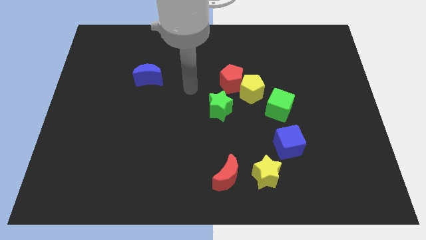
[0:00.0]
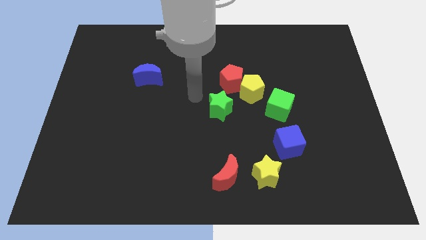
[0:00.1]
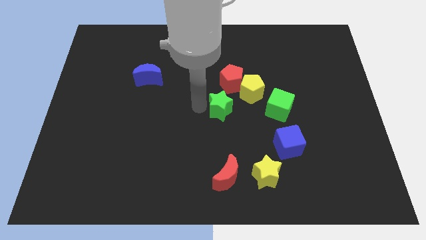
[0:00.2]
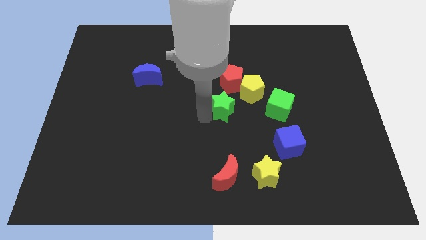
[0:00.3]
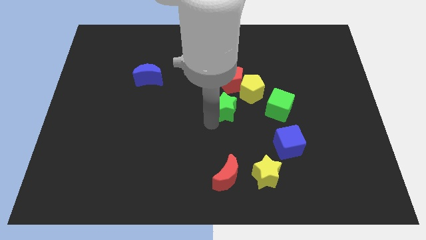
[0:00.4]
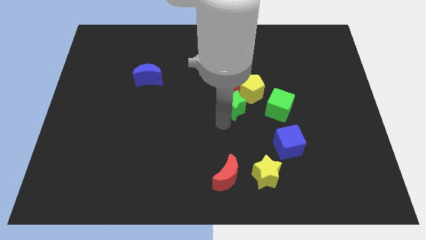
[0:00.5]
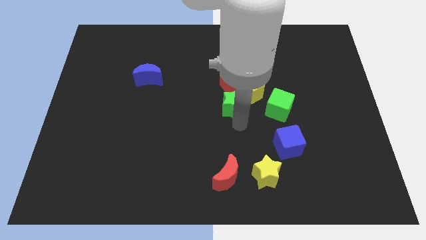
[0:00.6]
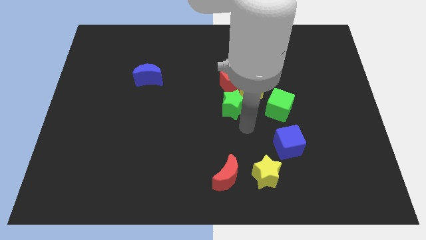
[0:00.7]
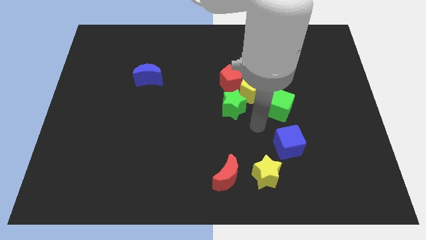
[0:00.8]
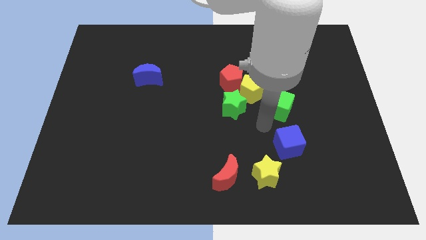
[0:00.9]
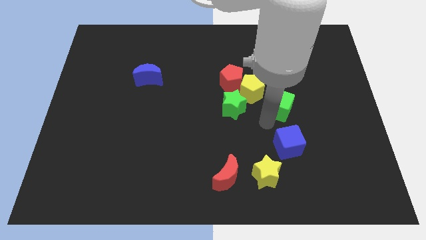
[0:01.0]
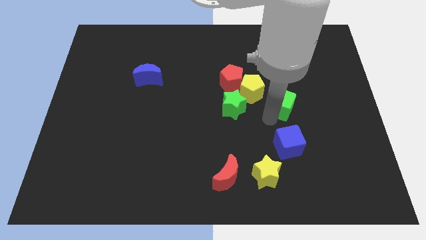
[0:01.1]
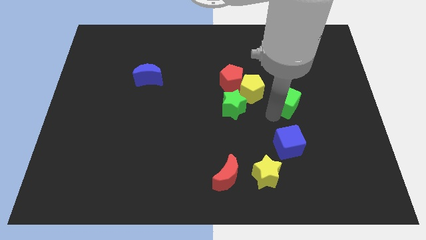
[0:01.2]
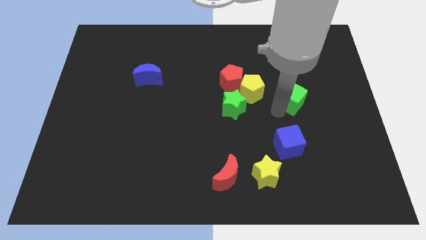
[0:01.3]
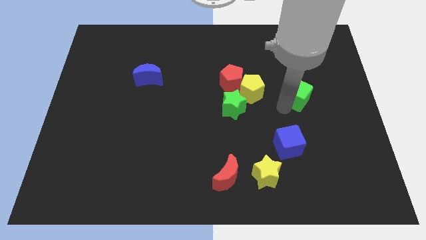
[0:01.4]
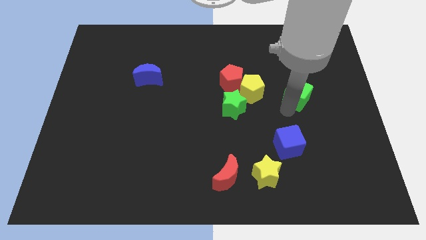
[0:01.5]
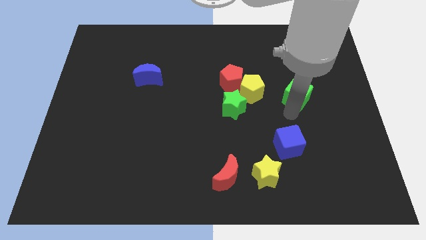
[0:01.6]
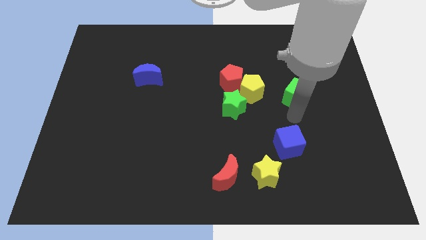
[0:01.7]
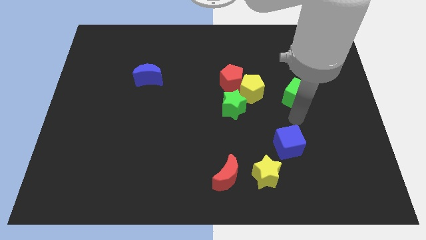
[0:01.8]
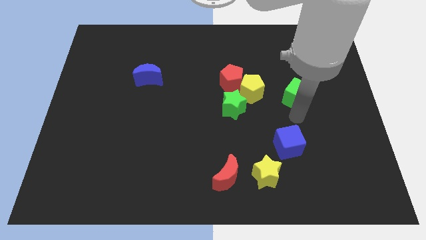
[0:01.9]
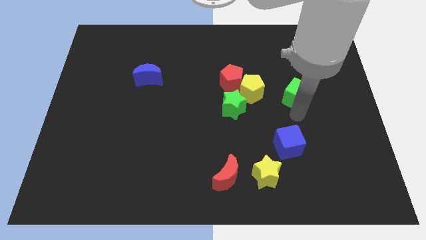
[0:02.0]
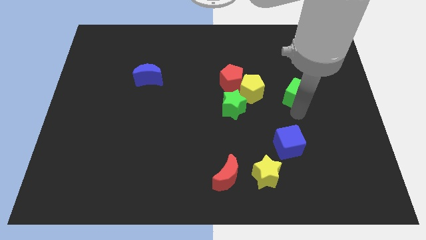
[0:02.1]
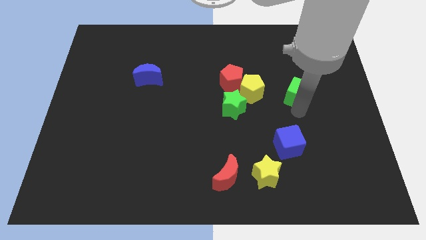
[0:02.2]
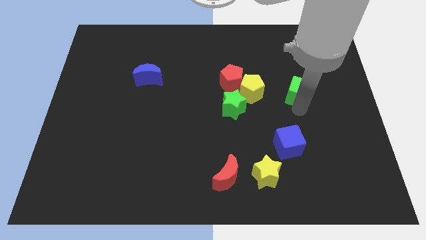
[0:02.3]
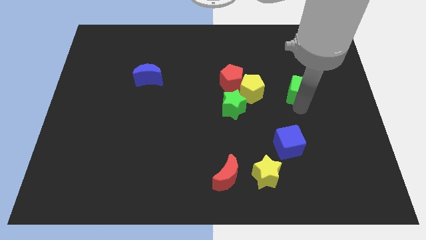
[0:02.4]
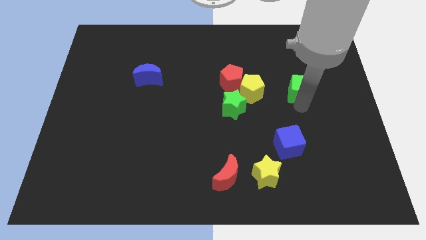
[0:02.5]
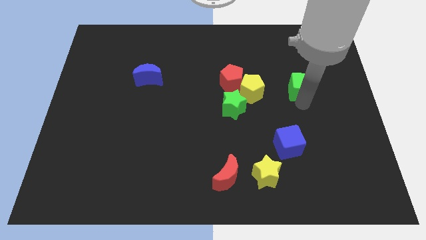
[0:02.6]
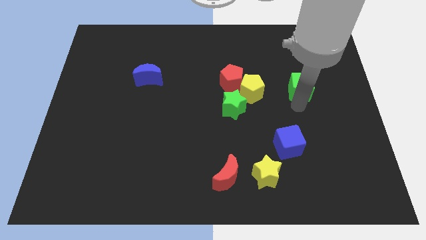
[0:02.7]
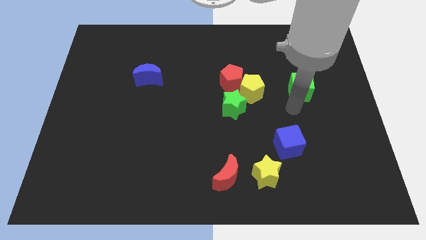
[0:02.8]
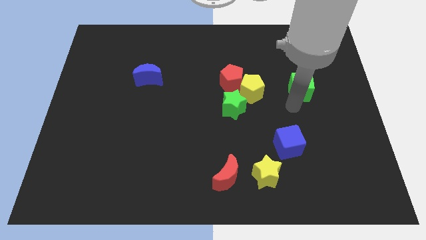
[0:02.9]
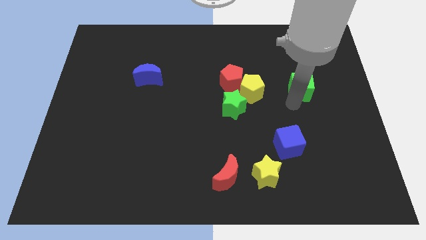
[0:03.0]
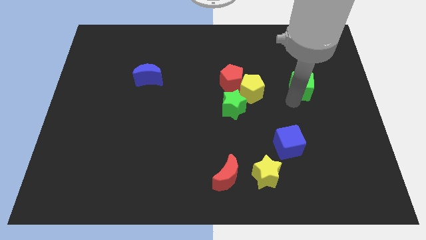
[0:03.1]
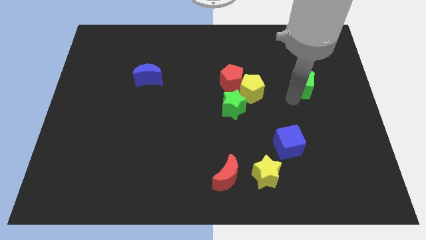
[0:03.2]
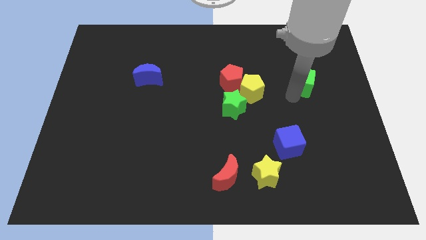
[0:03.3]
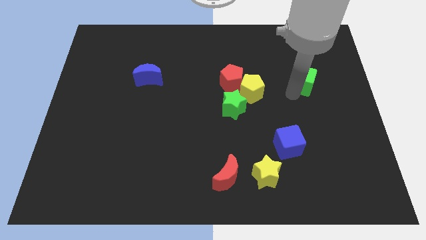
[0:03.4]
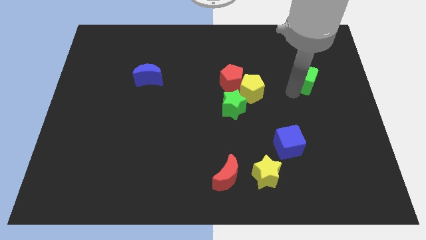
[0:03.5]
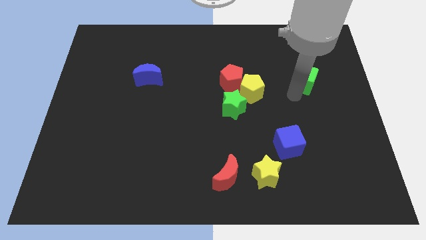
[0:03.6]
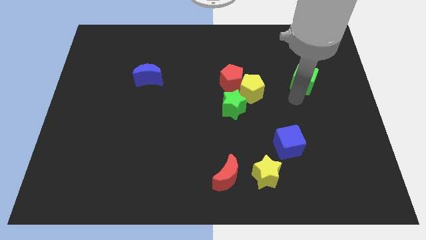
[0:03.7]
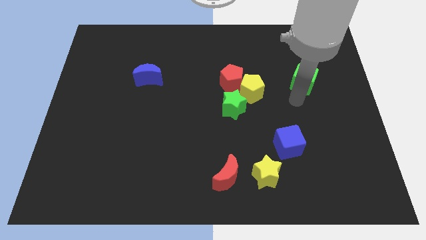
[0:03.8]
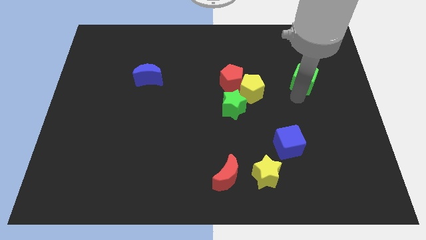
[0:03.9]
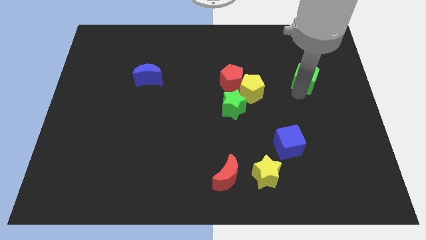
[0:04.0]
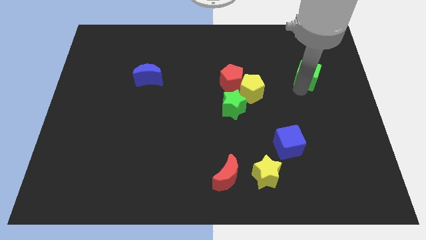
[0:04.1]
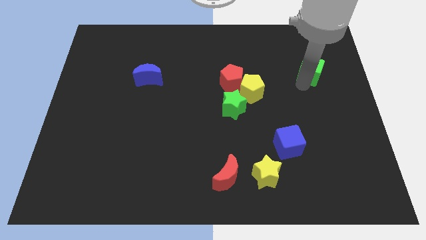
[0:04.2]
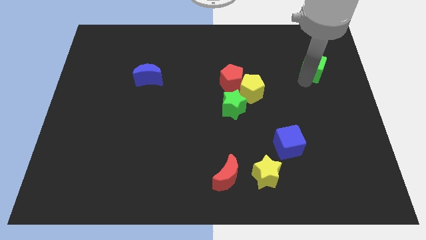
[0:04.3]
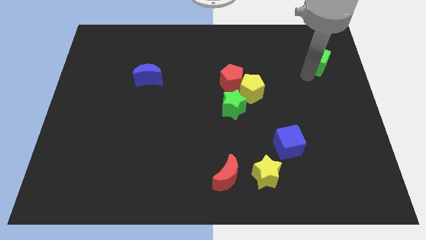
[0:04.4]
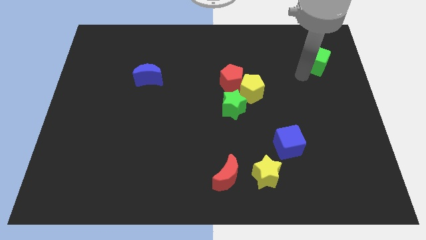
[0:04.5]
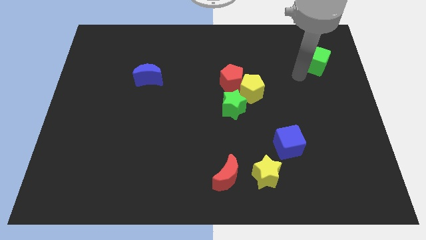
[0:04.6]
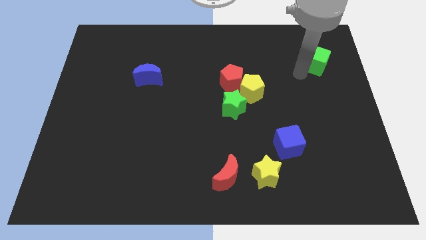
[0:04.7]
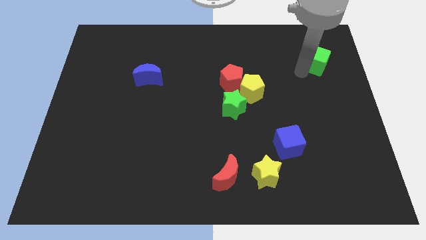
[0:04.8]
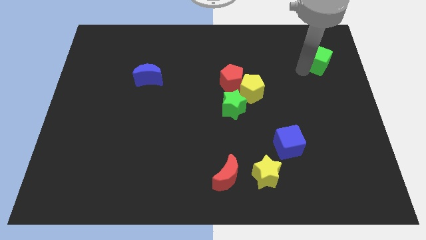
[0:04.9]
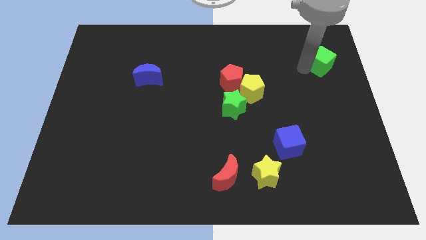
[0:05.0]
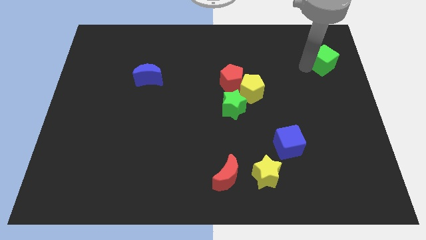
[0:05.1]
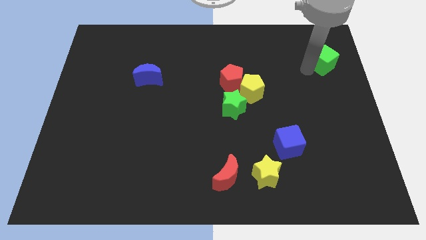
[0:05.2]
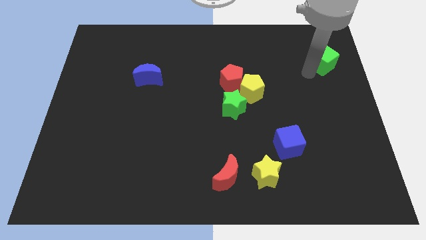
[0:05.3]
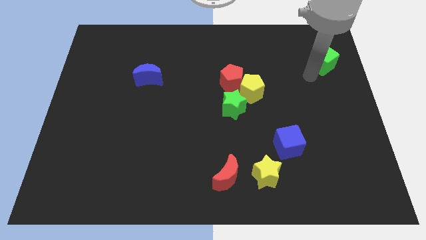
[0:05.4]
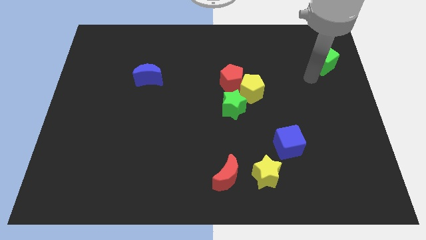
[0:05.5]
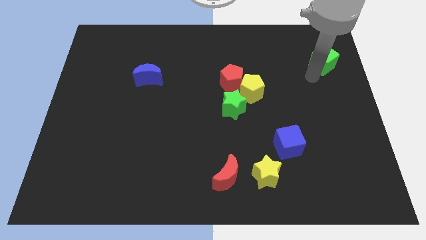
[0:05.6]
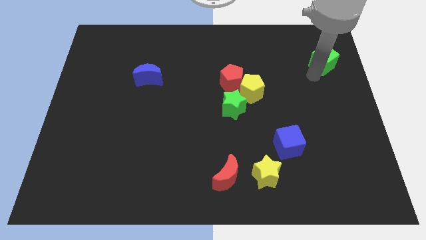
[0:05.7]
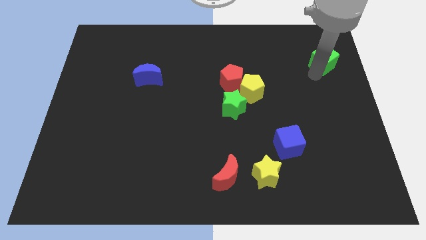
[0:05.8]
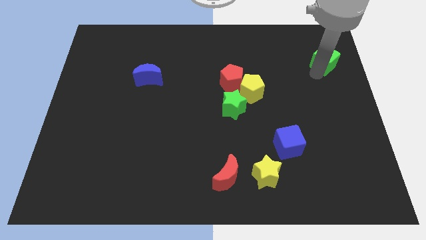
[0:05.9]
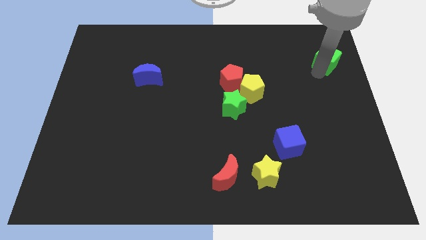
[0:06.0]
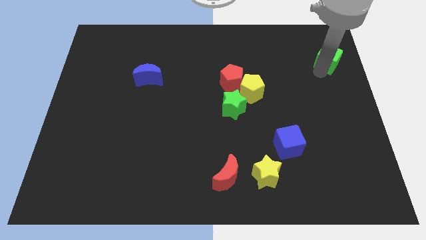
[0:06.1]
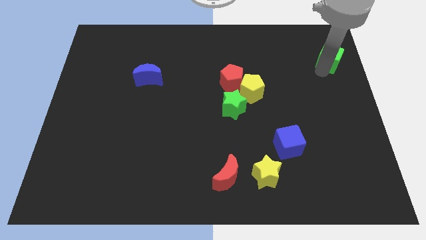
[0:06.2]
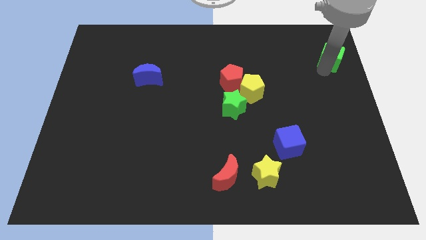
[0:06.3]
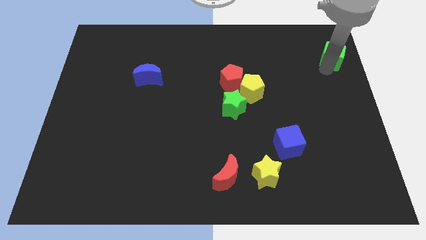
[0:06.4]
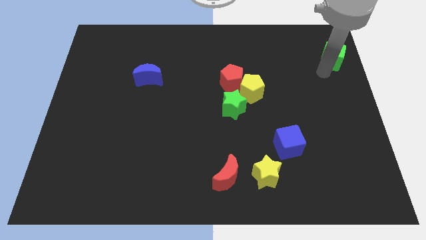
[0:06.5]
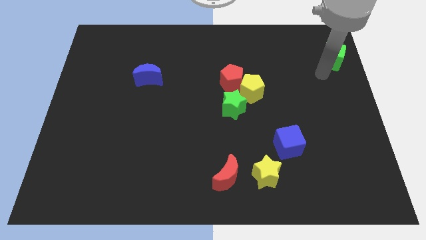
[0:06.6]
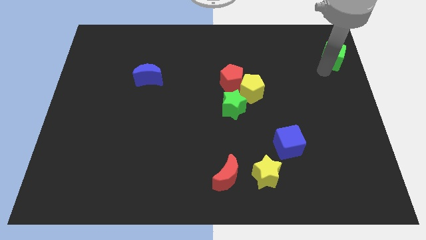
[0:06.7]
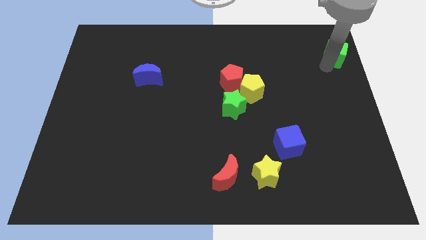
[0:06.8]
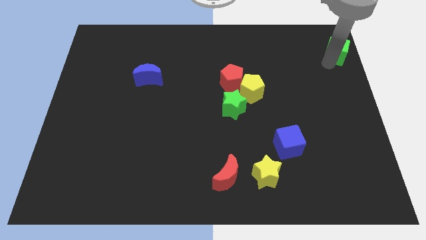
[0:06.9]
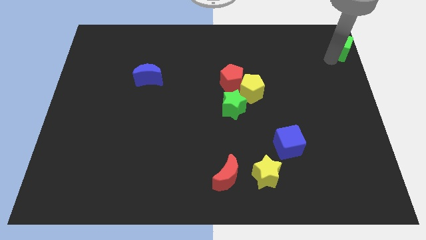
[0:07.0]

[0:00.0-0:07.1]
push the green cube to the upper right corner
